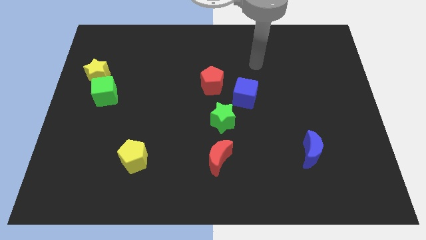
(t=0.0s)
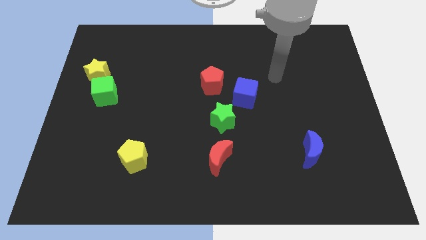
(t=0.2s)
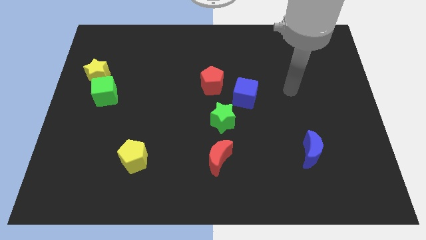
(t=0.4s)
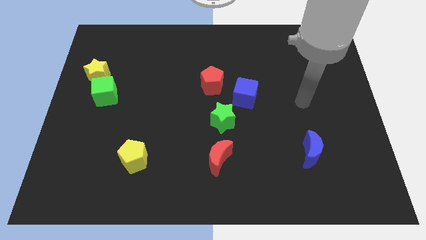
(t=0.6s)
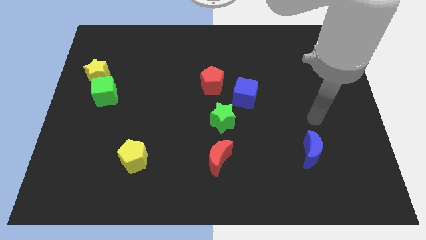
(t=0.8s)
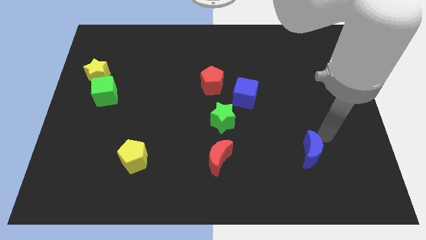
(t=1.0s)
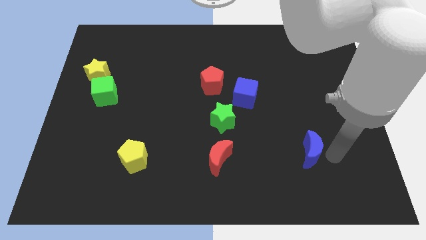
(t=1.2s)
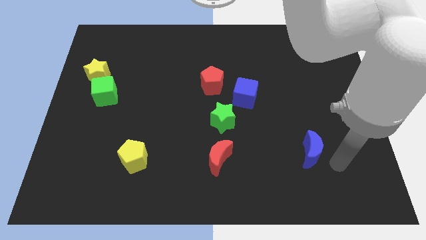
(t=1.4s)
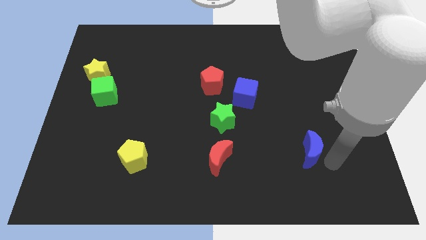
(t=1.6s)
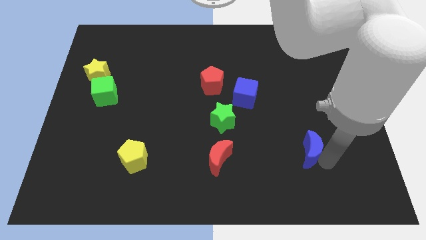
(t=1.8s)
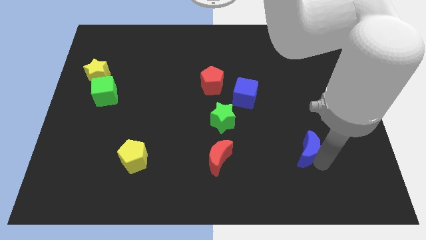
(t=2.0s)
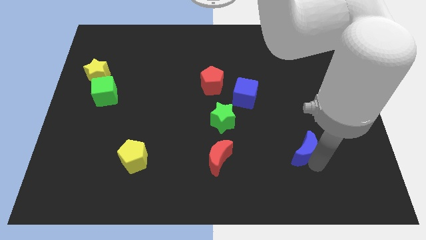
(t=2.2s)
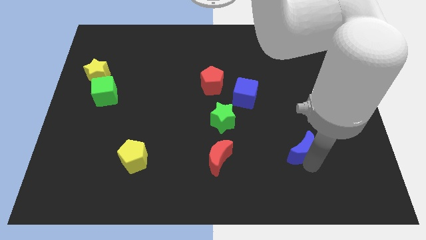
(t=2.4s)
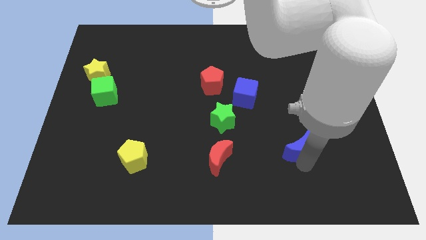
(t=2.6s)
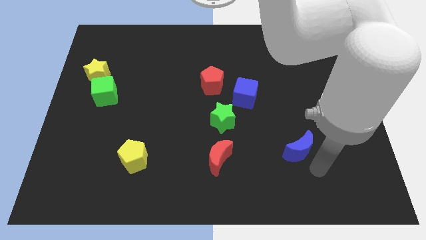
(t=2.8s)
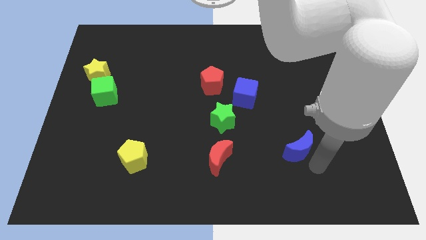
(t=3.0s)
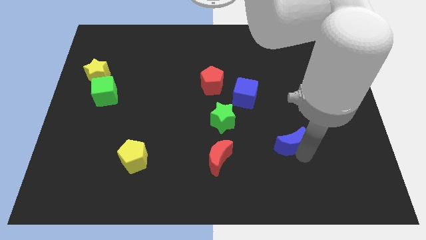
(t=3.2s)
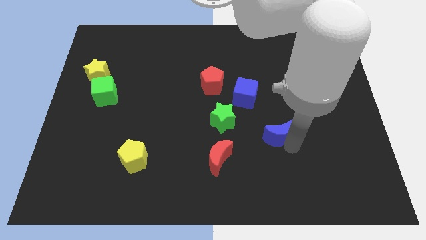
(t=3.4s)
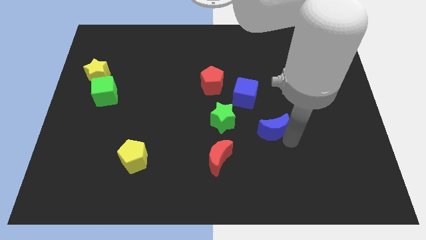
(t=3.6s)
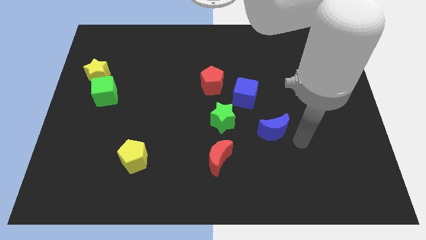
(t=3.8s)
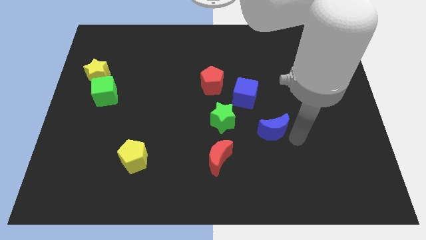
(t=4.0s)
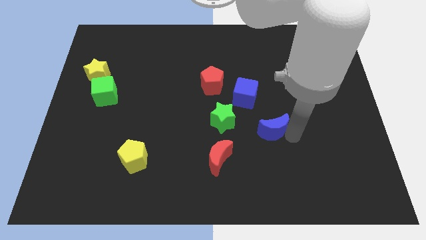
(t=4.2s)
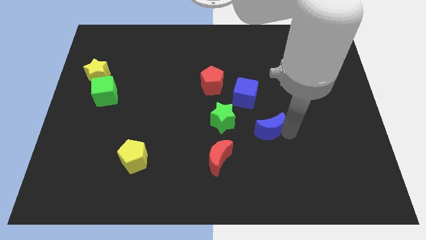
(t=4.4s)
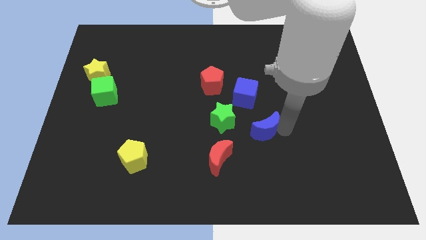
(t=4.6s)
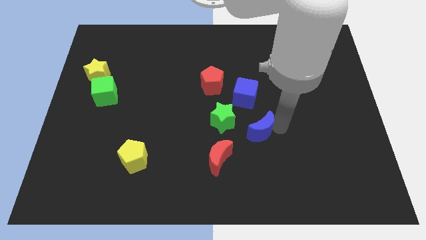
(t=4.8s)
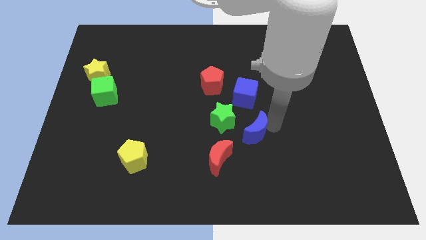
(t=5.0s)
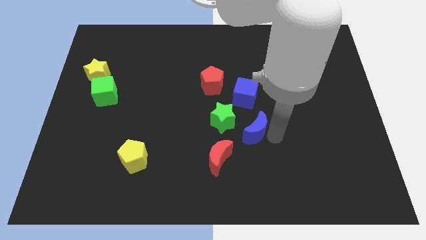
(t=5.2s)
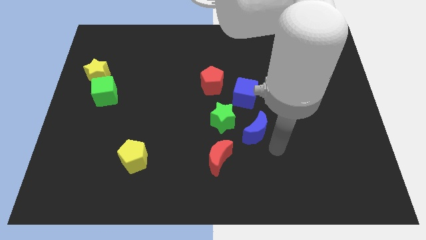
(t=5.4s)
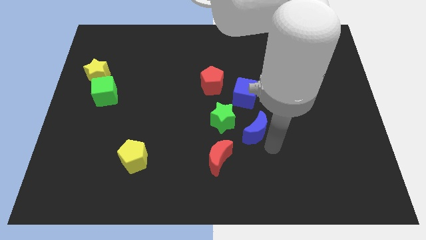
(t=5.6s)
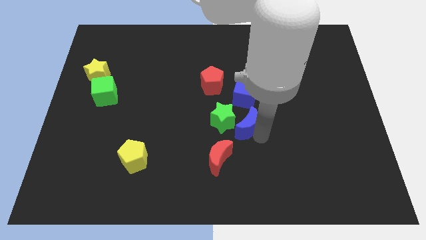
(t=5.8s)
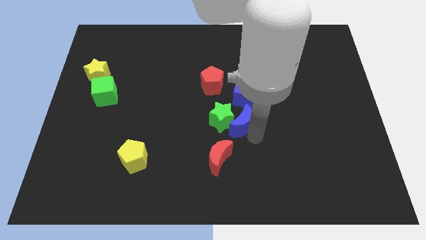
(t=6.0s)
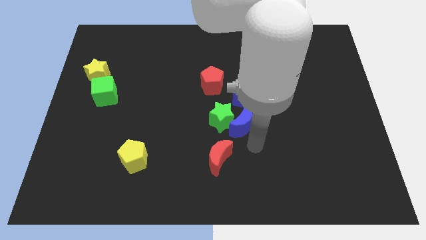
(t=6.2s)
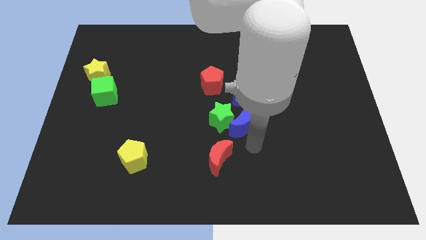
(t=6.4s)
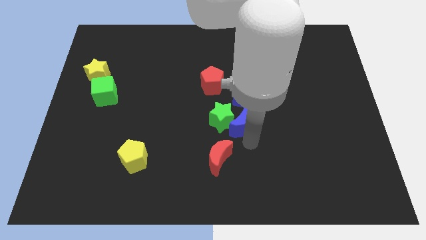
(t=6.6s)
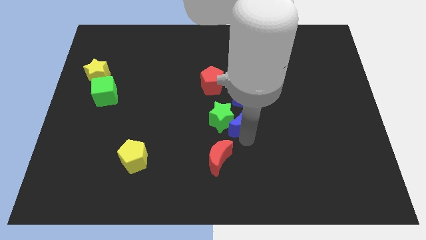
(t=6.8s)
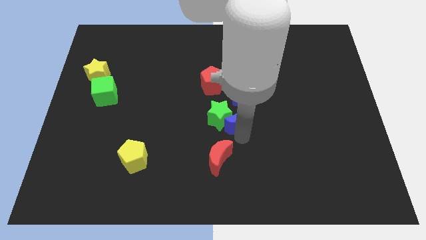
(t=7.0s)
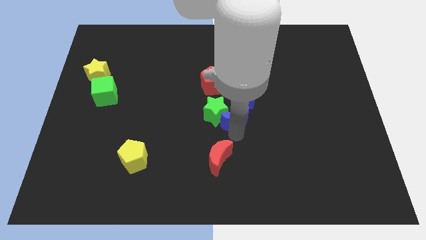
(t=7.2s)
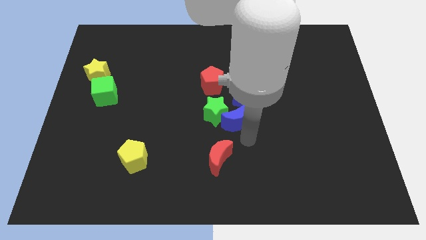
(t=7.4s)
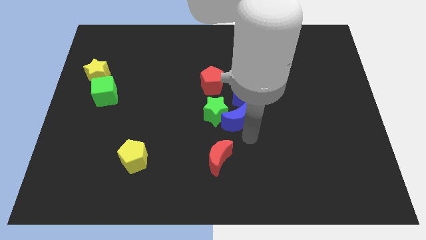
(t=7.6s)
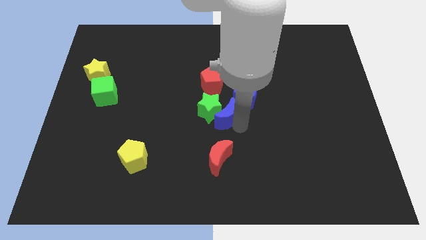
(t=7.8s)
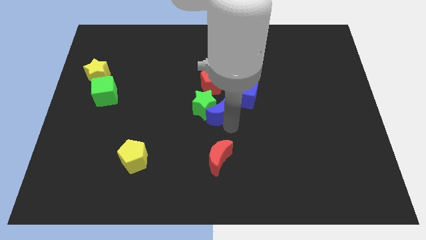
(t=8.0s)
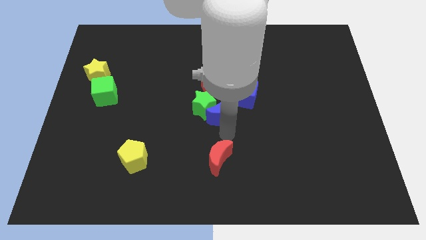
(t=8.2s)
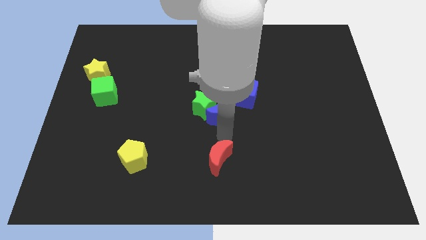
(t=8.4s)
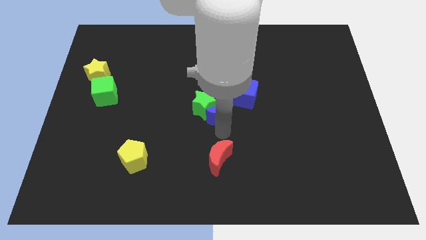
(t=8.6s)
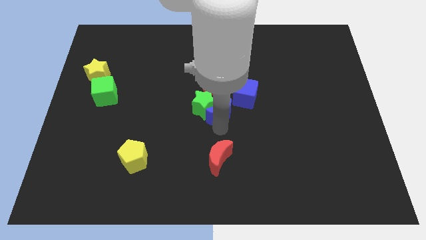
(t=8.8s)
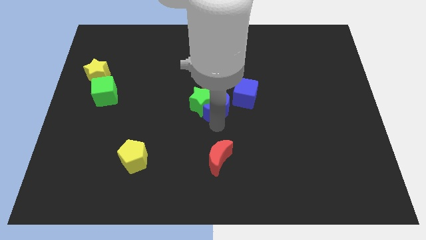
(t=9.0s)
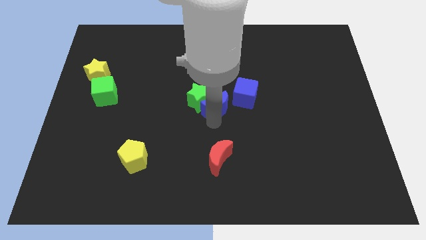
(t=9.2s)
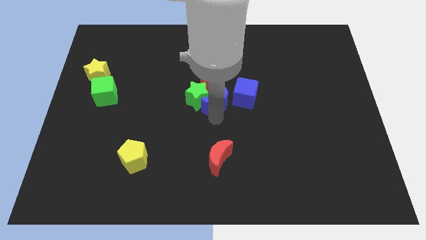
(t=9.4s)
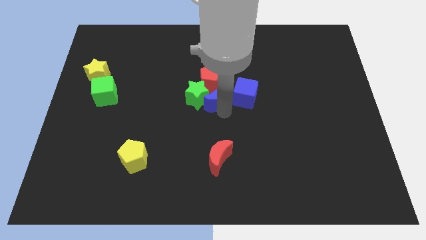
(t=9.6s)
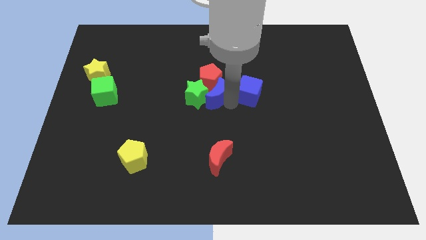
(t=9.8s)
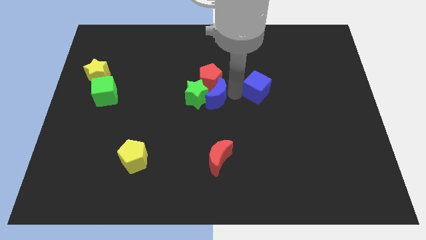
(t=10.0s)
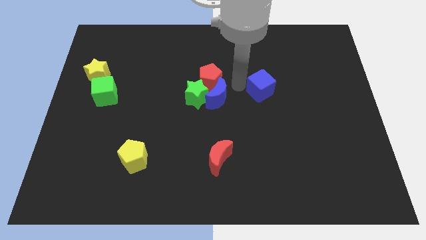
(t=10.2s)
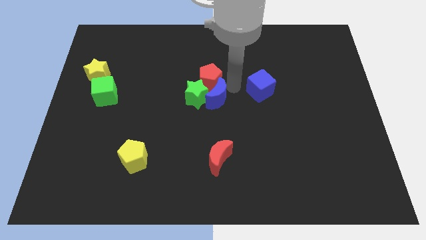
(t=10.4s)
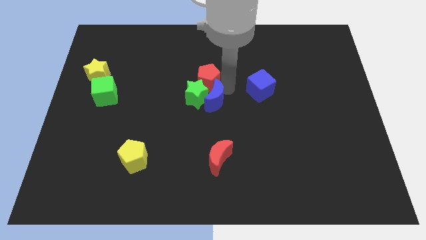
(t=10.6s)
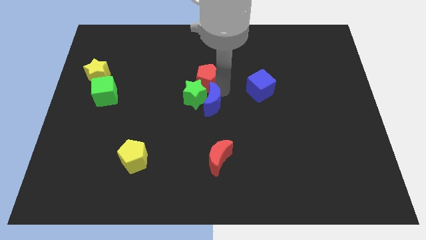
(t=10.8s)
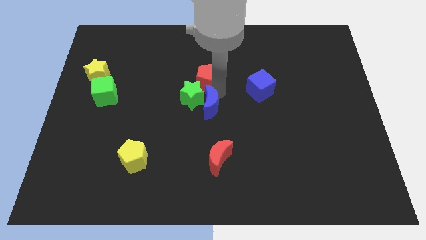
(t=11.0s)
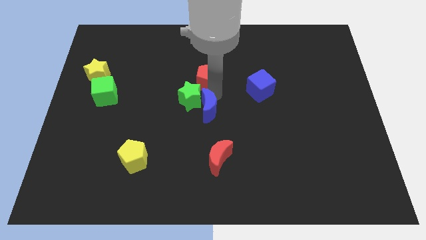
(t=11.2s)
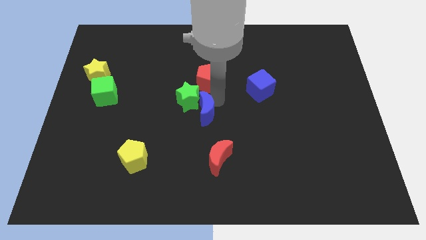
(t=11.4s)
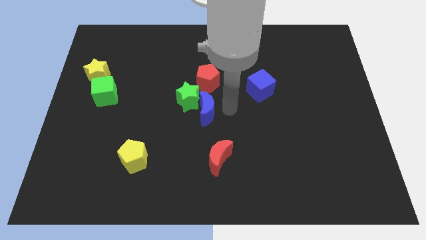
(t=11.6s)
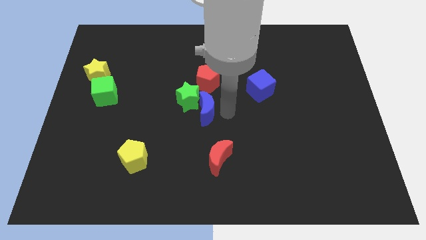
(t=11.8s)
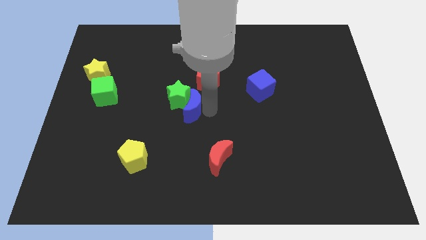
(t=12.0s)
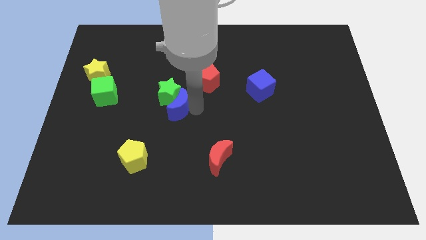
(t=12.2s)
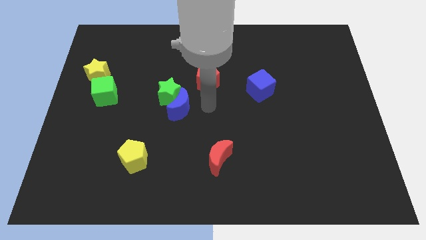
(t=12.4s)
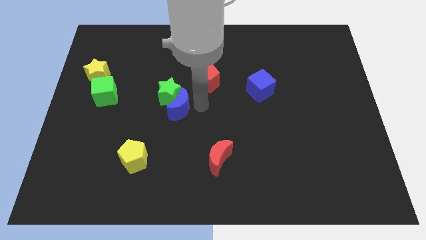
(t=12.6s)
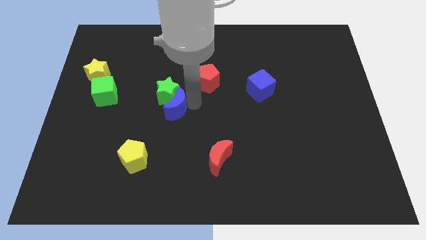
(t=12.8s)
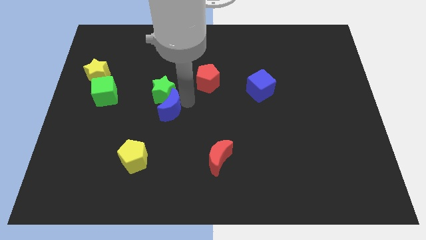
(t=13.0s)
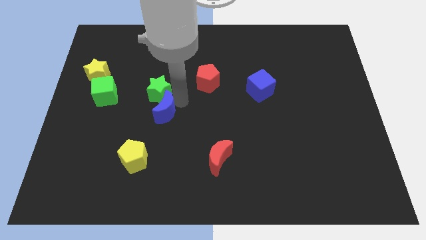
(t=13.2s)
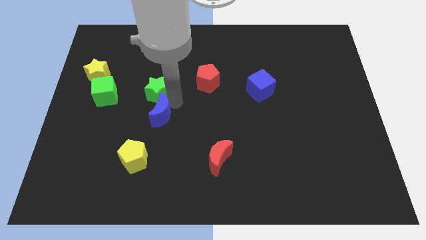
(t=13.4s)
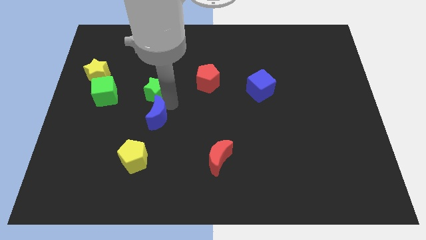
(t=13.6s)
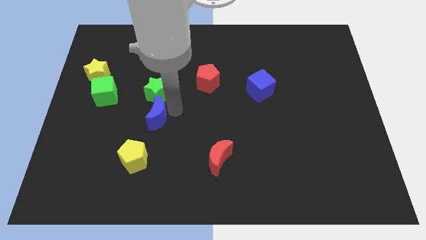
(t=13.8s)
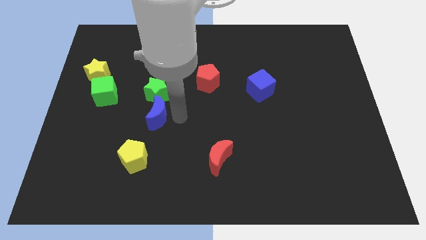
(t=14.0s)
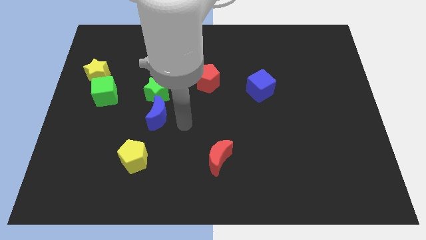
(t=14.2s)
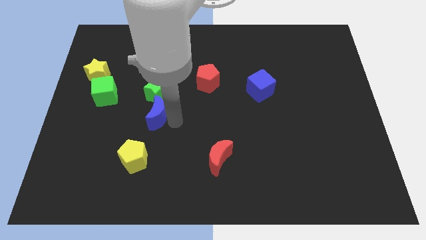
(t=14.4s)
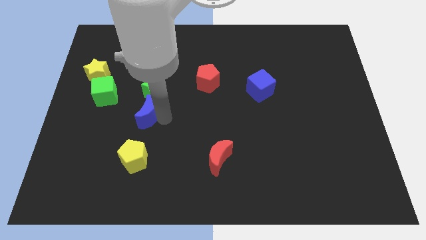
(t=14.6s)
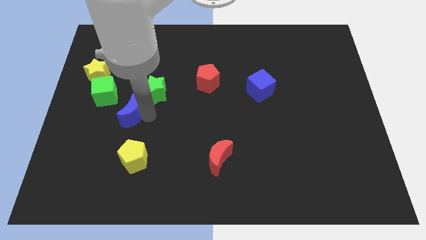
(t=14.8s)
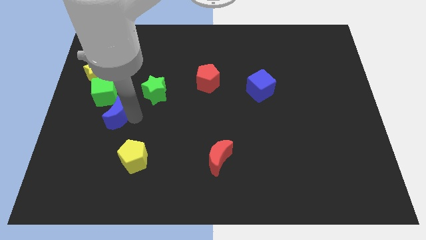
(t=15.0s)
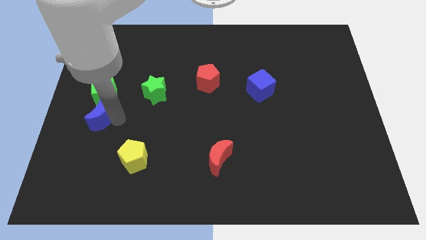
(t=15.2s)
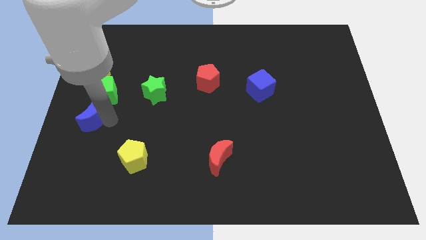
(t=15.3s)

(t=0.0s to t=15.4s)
move the blue moon to the left side
